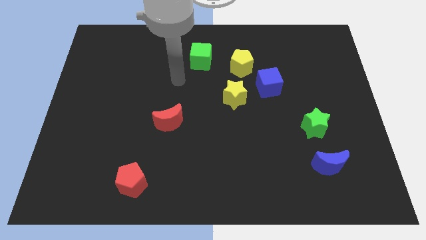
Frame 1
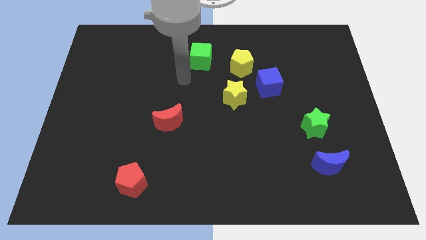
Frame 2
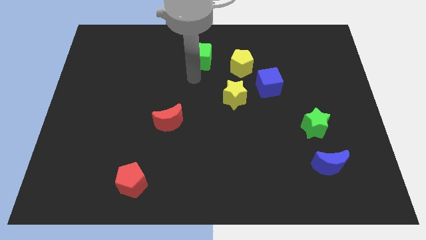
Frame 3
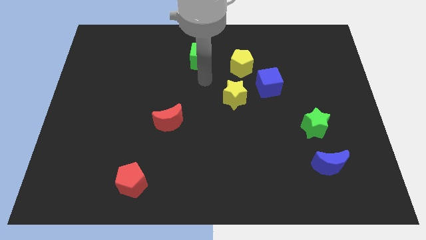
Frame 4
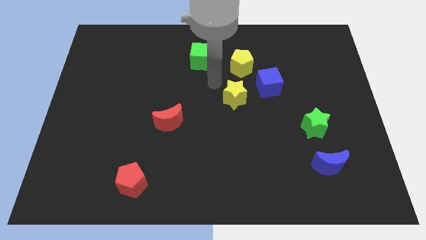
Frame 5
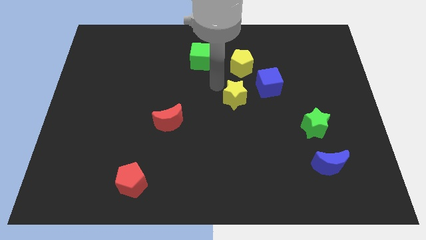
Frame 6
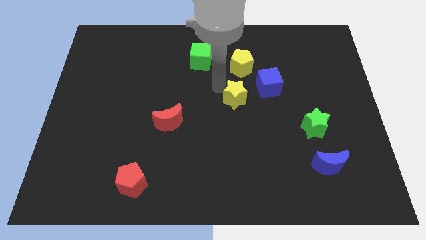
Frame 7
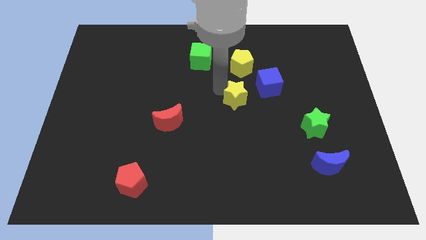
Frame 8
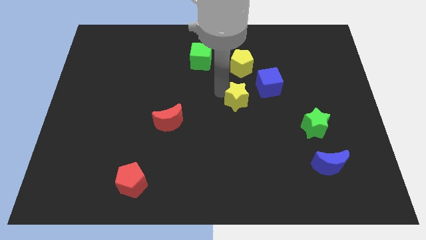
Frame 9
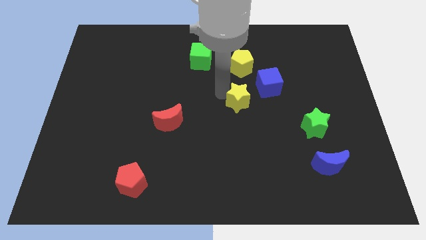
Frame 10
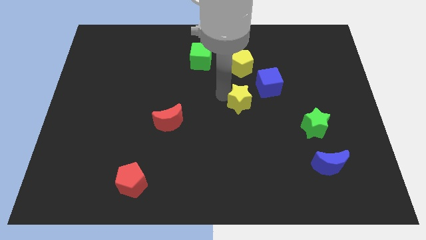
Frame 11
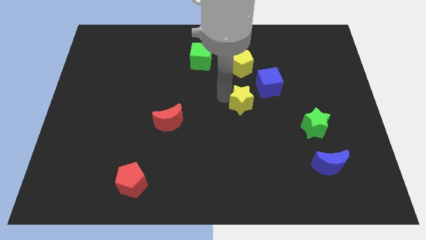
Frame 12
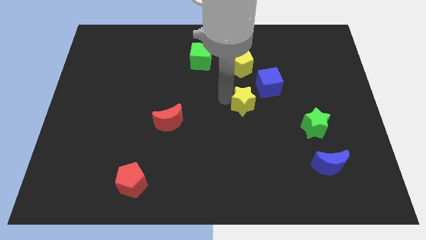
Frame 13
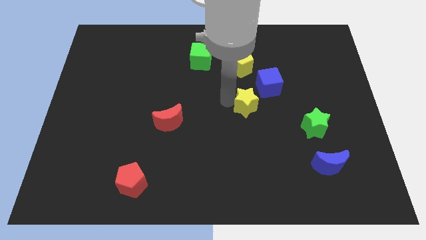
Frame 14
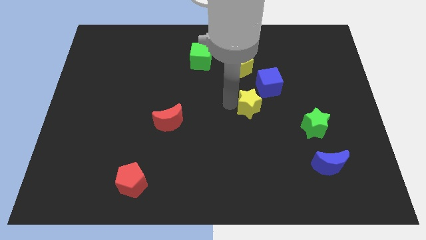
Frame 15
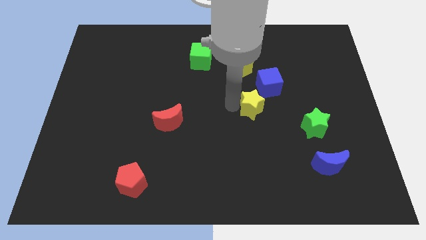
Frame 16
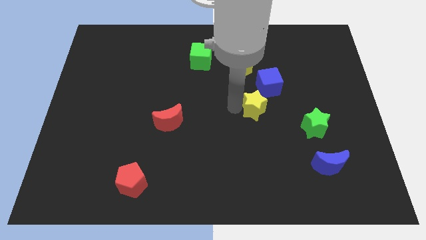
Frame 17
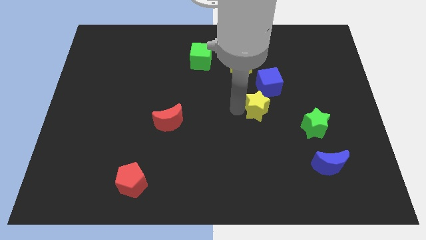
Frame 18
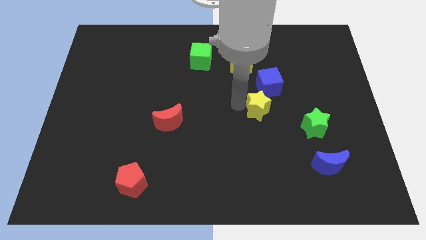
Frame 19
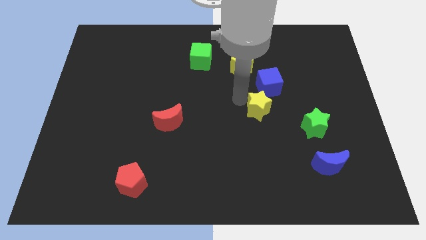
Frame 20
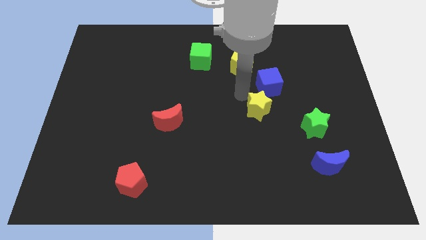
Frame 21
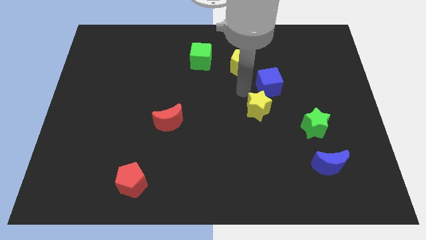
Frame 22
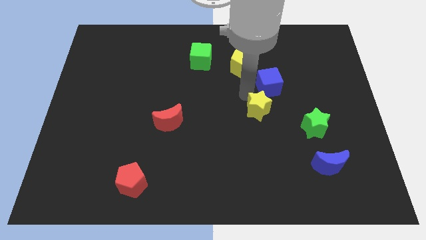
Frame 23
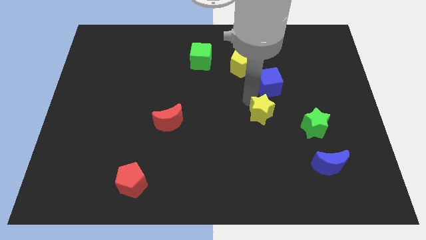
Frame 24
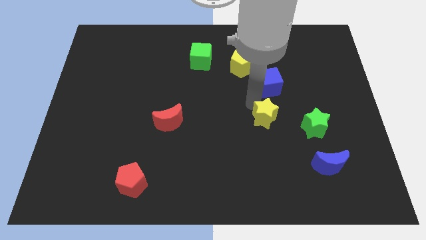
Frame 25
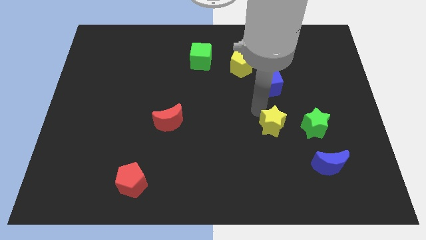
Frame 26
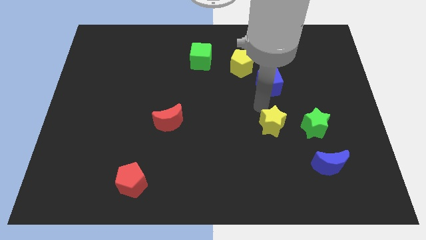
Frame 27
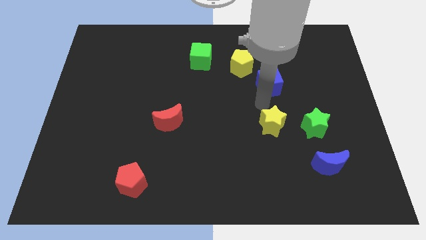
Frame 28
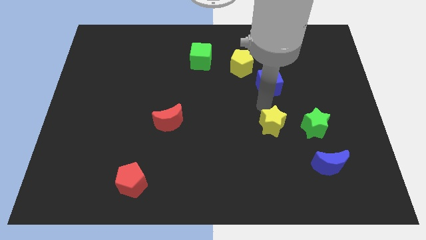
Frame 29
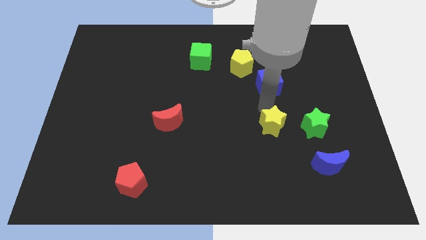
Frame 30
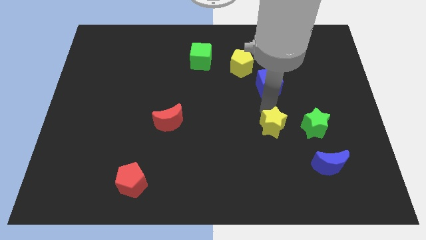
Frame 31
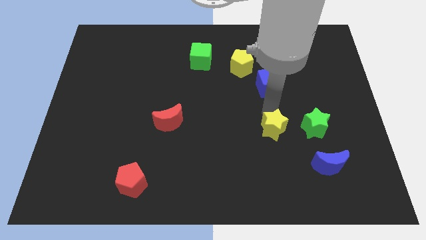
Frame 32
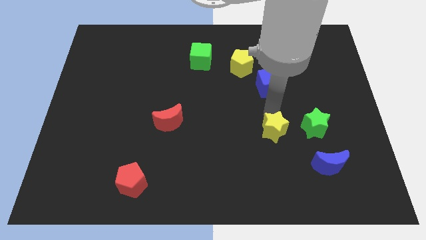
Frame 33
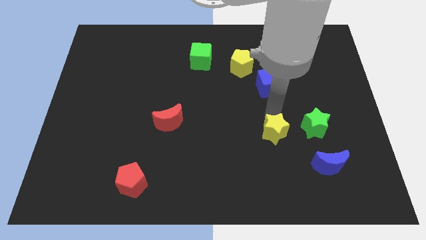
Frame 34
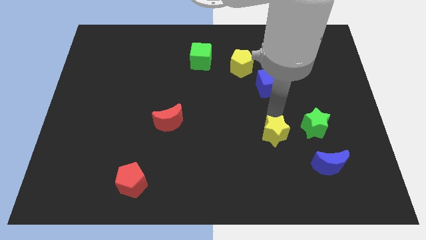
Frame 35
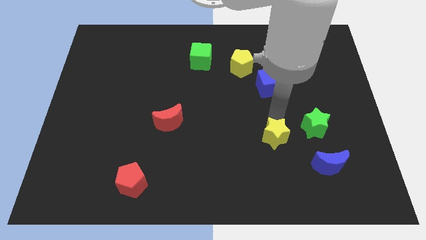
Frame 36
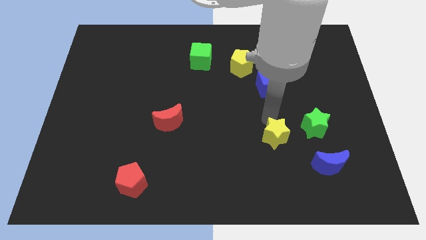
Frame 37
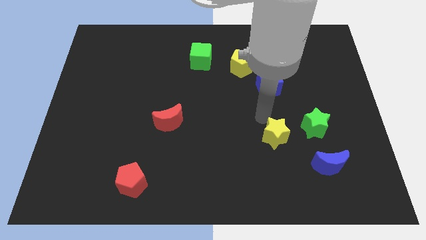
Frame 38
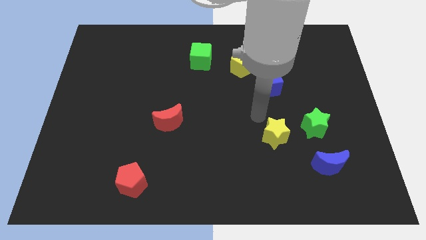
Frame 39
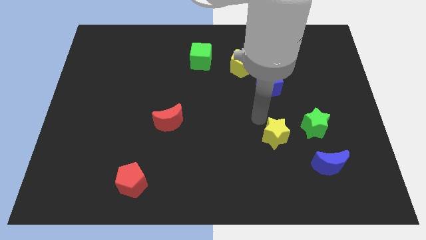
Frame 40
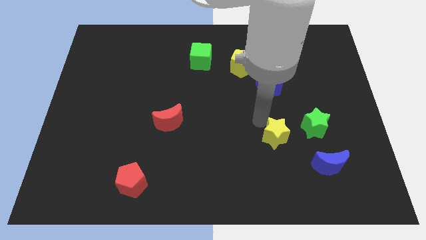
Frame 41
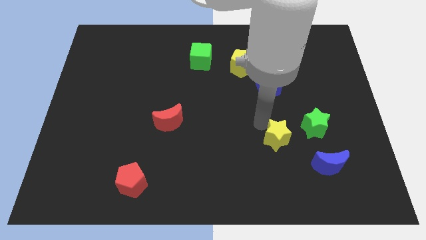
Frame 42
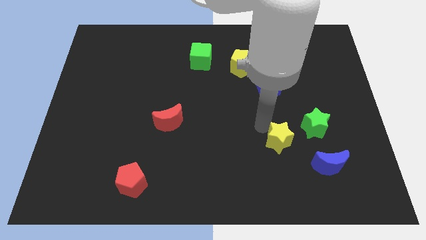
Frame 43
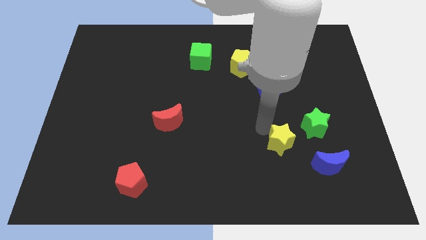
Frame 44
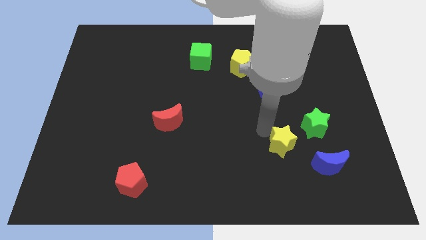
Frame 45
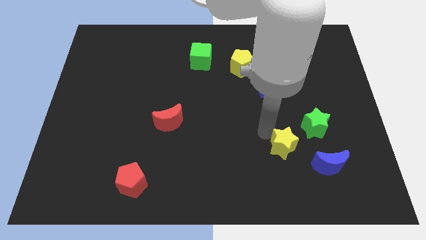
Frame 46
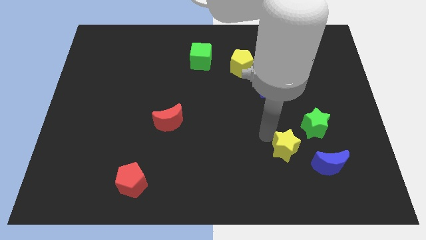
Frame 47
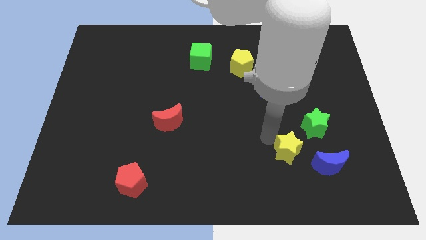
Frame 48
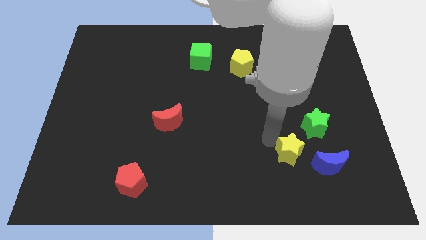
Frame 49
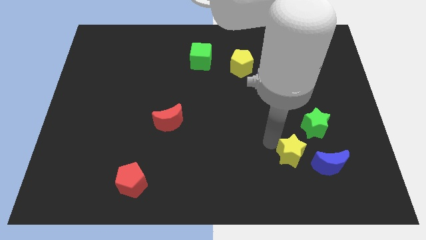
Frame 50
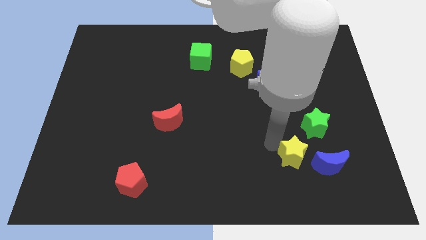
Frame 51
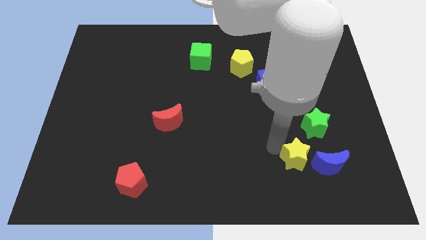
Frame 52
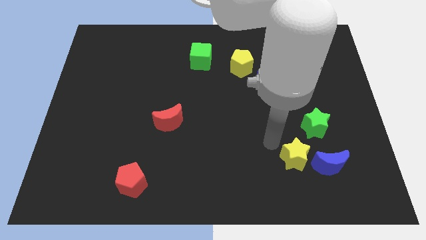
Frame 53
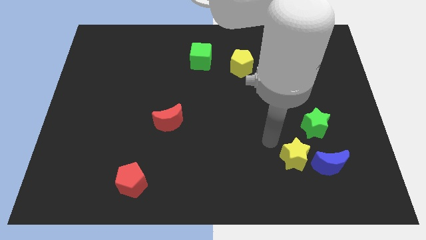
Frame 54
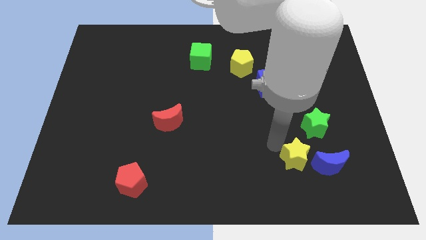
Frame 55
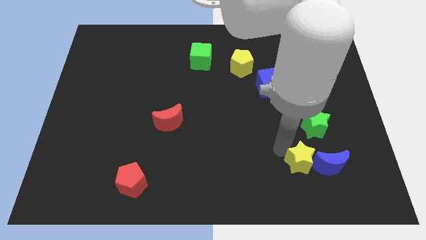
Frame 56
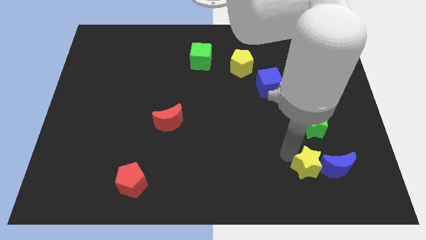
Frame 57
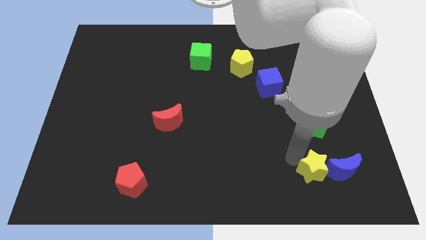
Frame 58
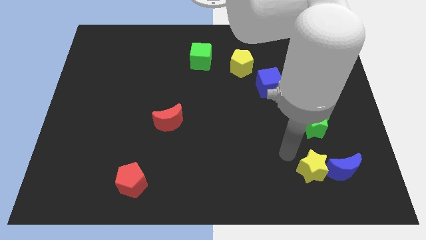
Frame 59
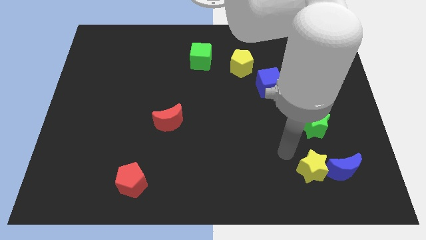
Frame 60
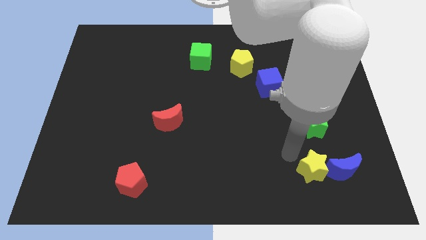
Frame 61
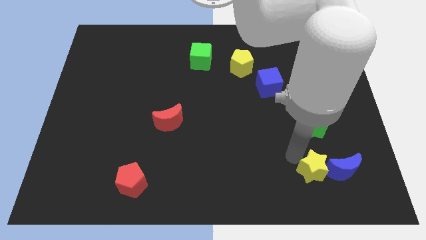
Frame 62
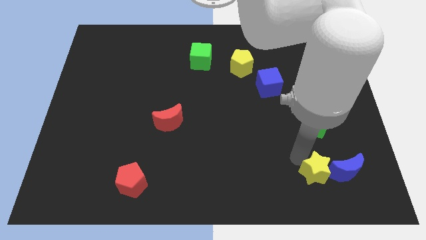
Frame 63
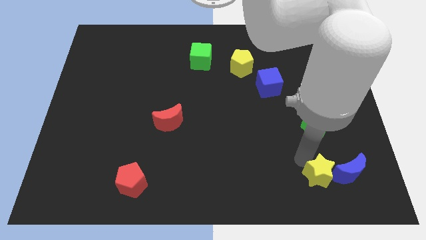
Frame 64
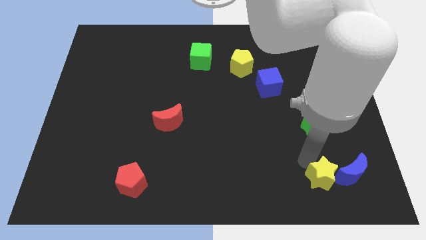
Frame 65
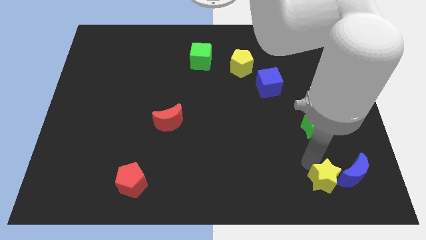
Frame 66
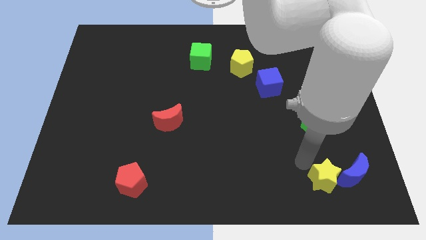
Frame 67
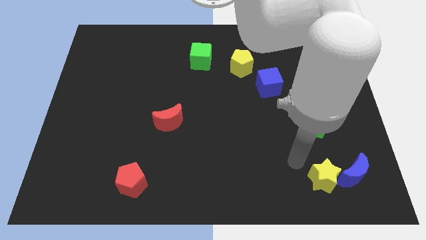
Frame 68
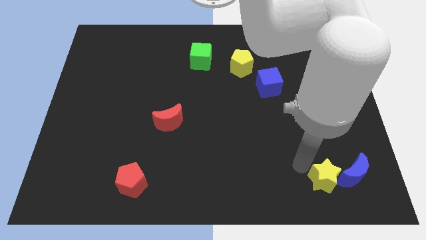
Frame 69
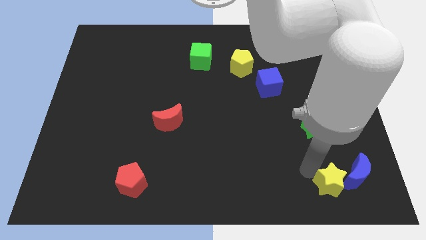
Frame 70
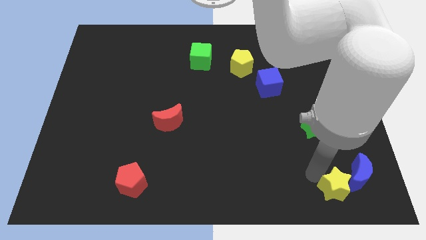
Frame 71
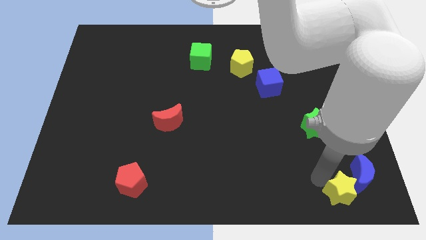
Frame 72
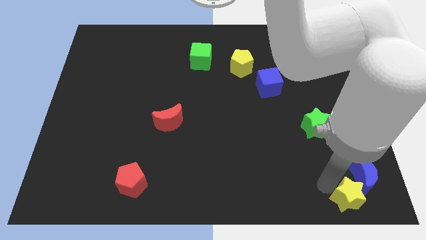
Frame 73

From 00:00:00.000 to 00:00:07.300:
move the yellow star to the lower right corner
